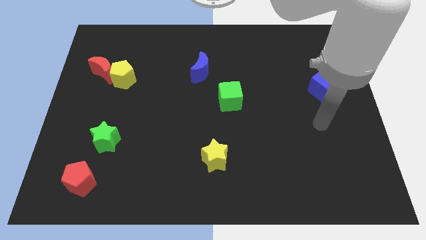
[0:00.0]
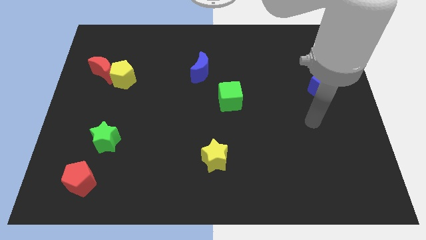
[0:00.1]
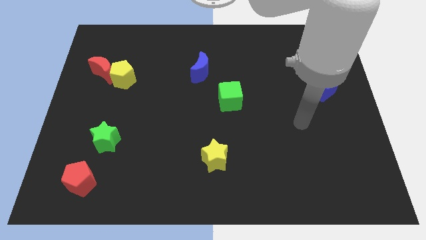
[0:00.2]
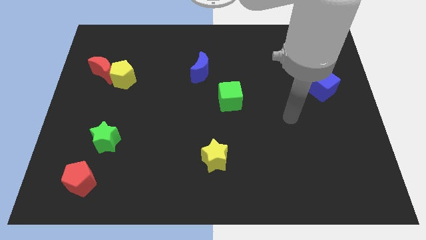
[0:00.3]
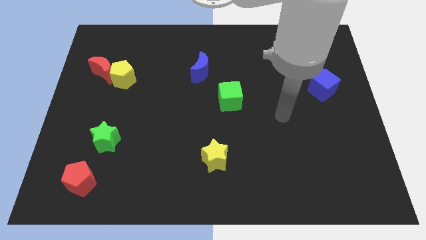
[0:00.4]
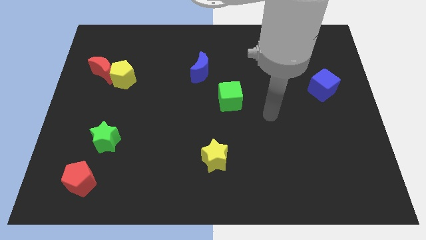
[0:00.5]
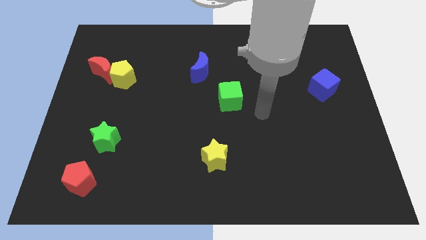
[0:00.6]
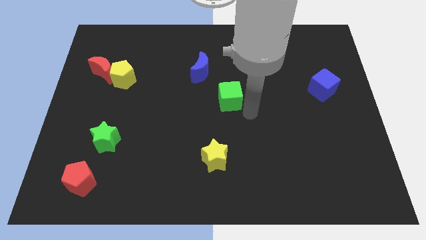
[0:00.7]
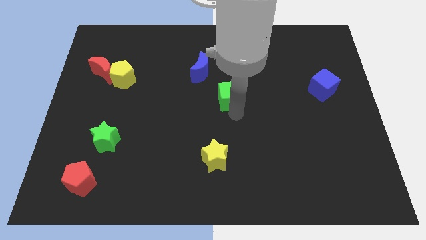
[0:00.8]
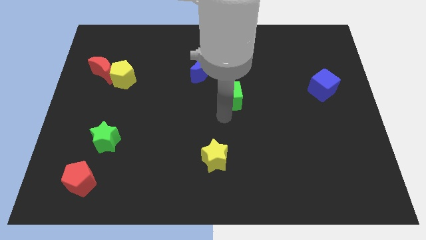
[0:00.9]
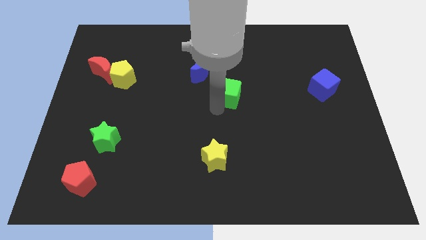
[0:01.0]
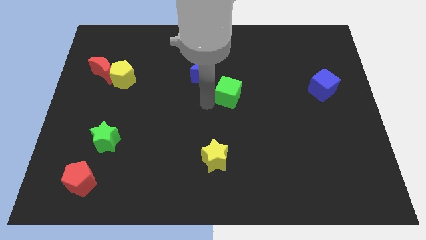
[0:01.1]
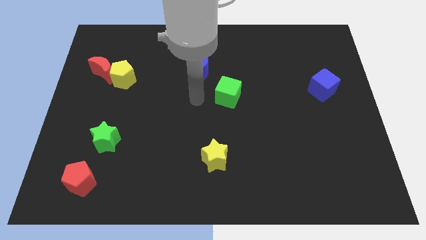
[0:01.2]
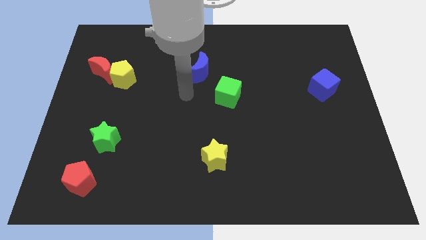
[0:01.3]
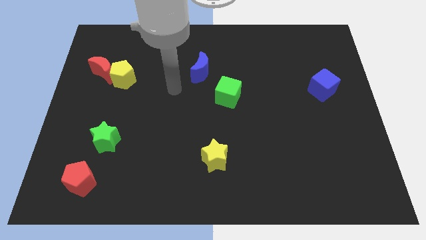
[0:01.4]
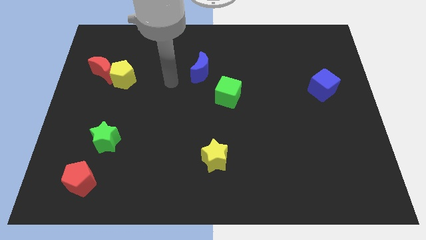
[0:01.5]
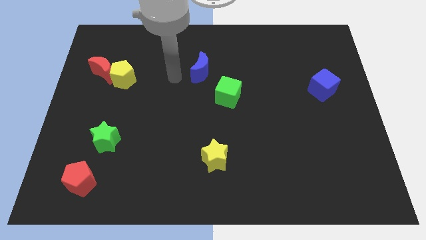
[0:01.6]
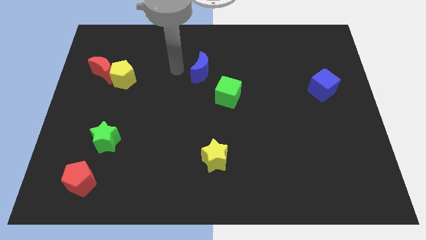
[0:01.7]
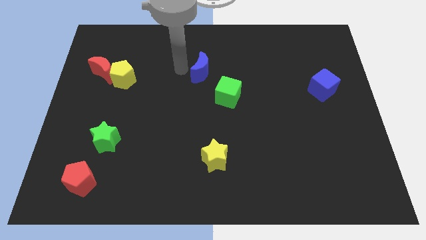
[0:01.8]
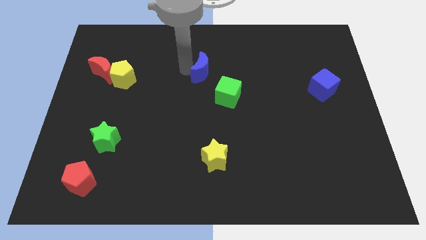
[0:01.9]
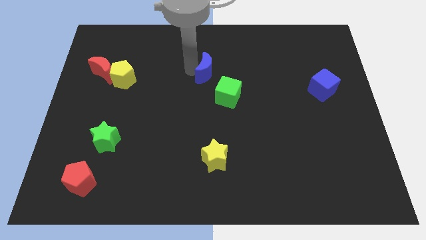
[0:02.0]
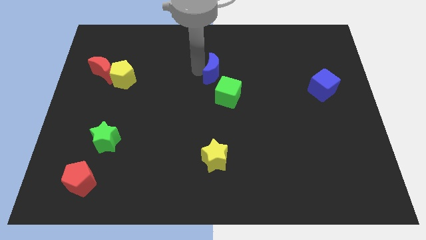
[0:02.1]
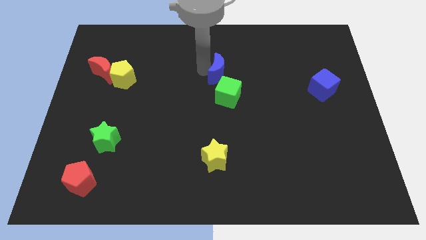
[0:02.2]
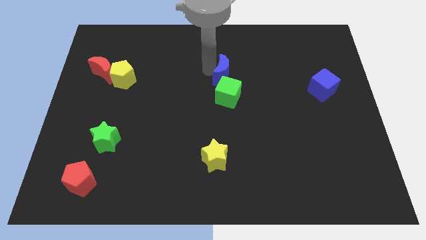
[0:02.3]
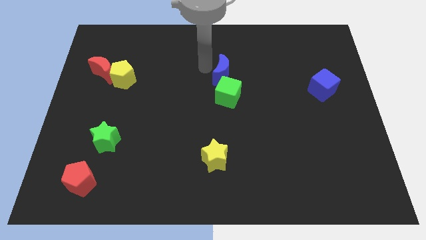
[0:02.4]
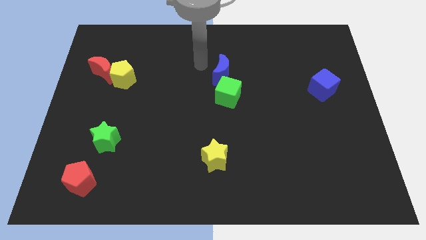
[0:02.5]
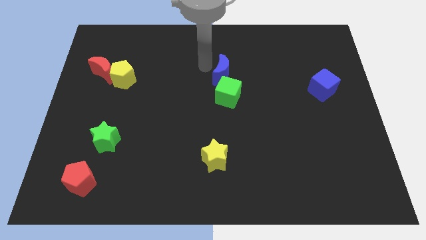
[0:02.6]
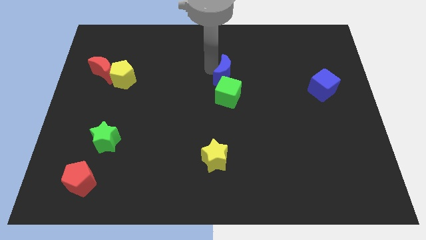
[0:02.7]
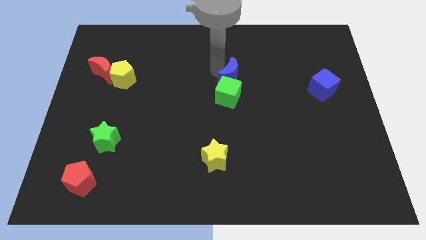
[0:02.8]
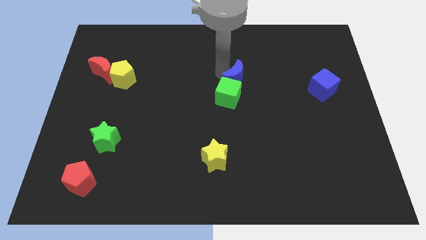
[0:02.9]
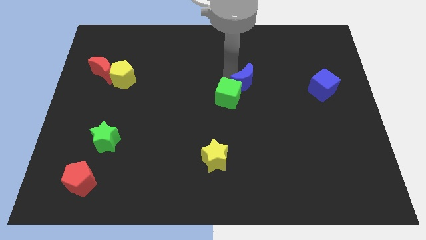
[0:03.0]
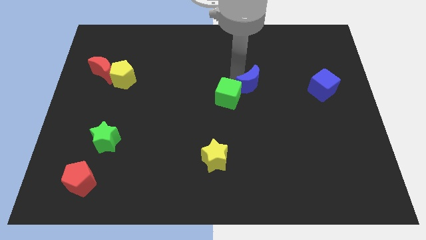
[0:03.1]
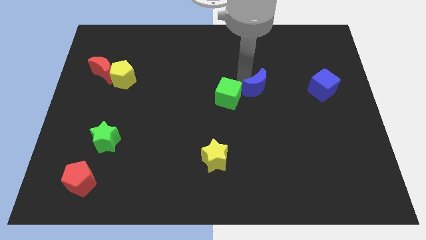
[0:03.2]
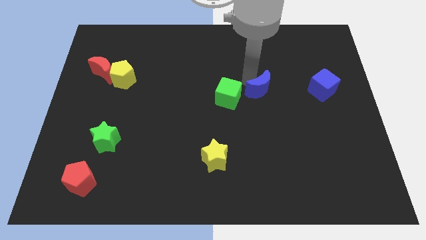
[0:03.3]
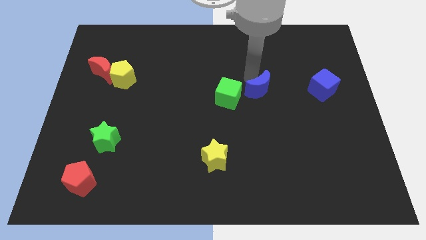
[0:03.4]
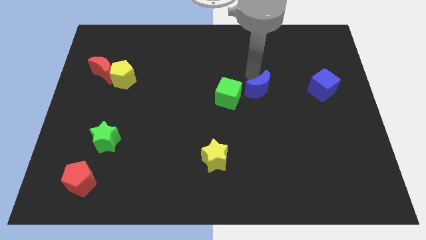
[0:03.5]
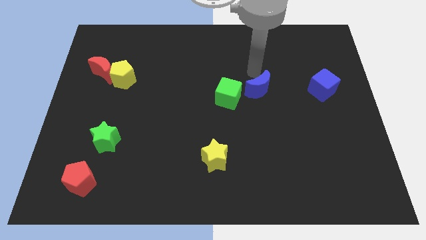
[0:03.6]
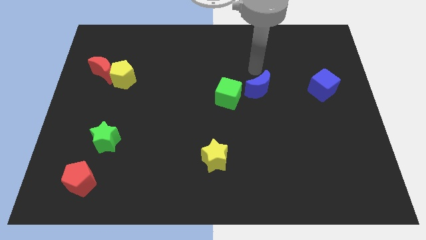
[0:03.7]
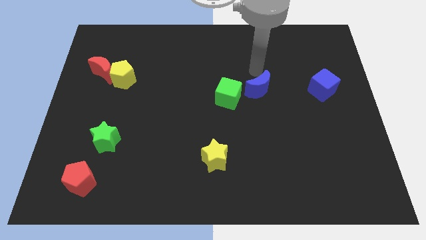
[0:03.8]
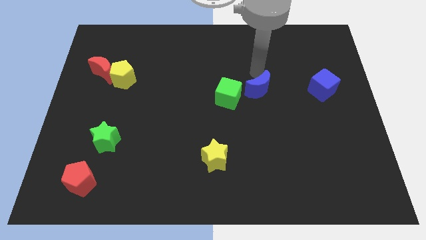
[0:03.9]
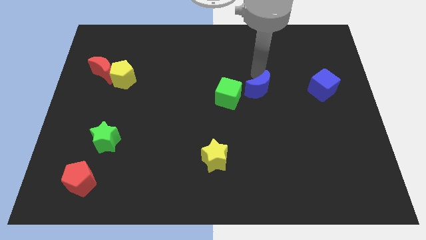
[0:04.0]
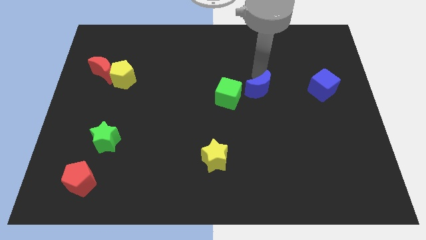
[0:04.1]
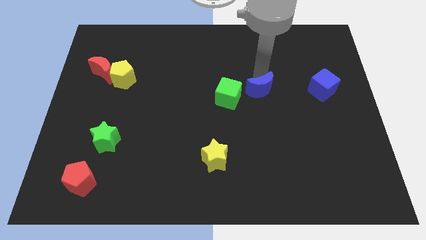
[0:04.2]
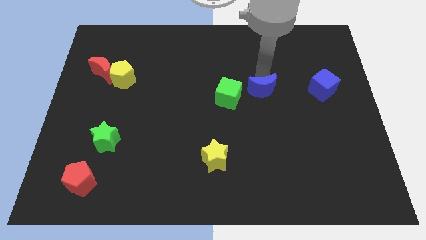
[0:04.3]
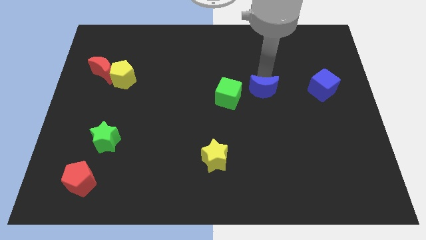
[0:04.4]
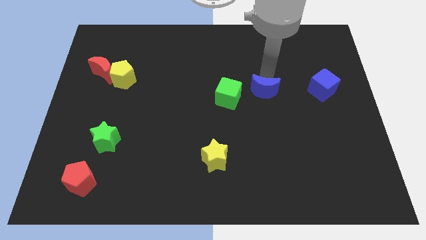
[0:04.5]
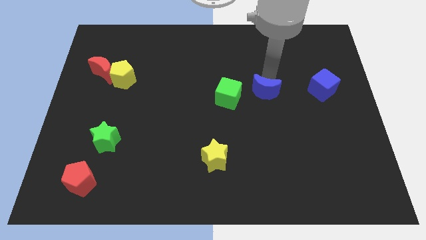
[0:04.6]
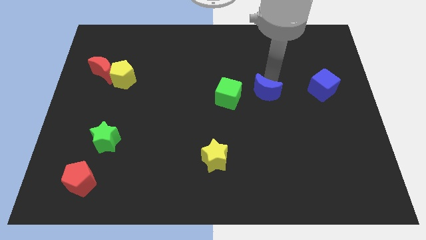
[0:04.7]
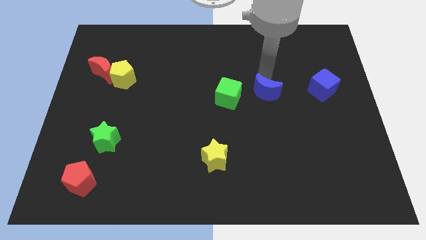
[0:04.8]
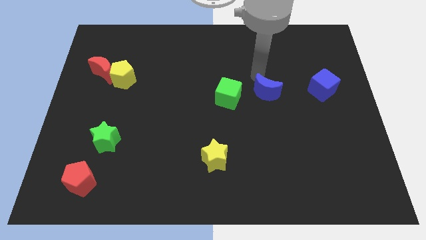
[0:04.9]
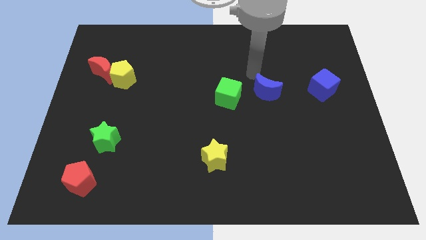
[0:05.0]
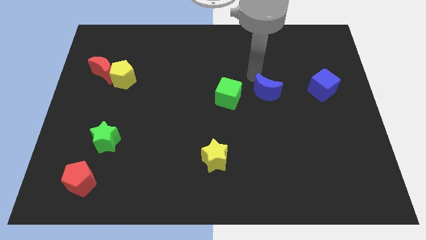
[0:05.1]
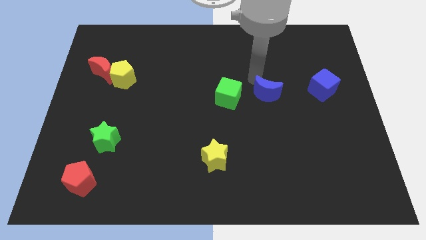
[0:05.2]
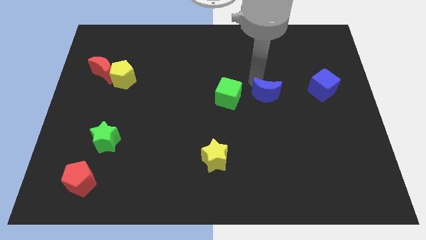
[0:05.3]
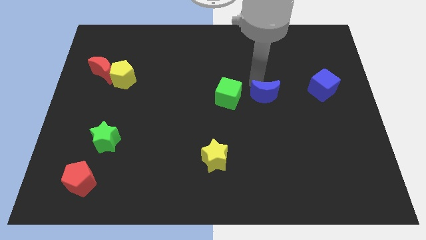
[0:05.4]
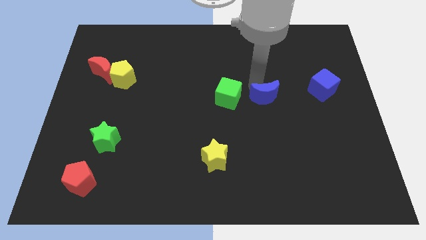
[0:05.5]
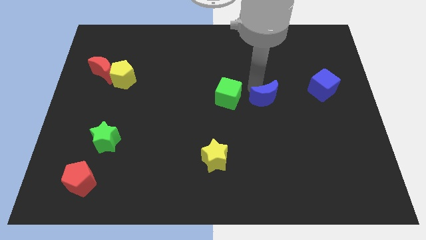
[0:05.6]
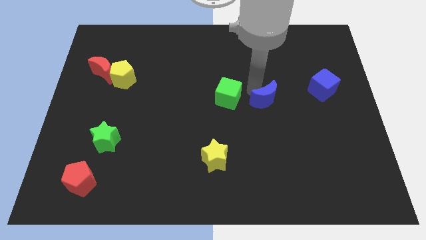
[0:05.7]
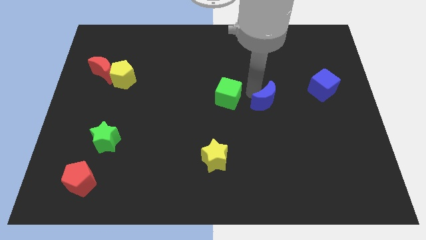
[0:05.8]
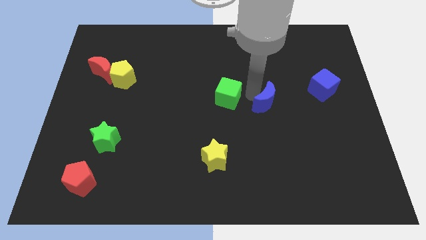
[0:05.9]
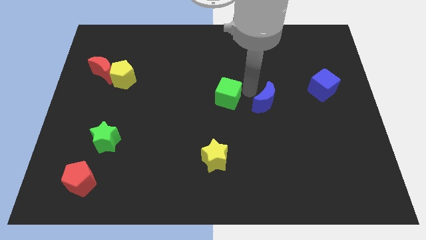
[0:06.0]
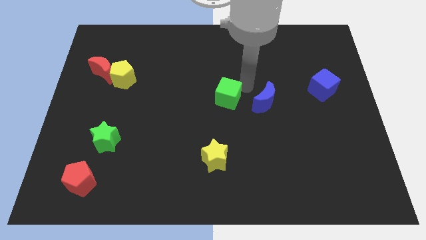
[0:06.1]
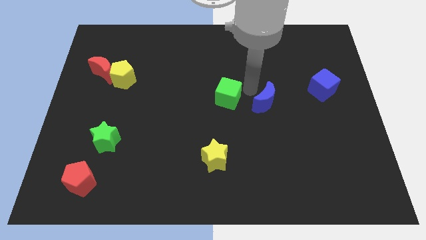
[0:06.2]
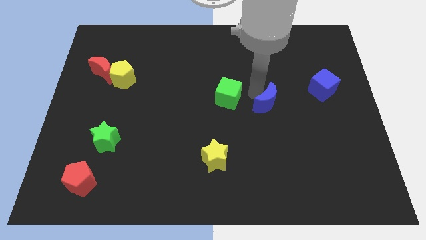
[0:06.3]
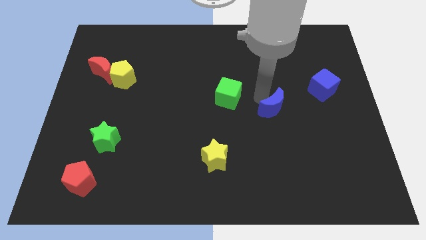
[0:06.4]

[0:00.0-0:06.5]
slide the blue moon down and to the right diagonally

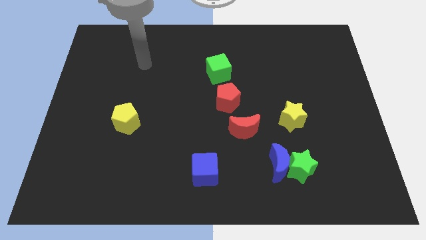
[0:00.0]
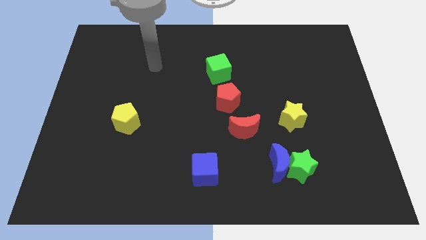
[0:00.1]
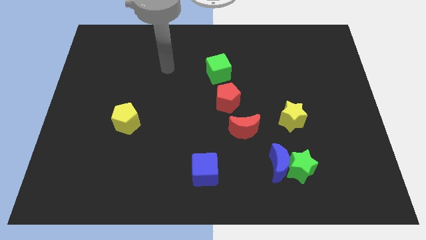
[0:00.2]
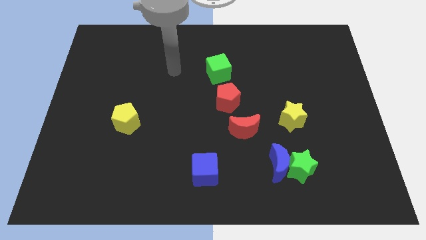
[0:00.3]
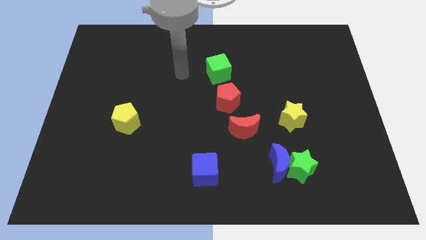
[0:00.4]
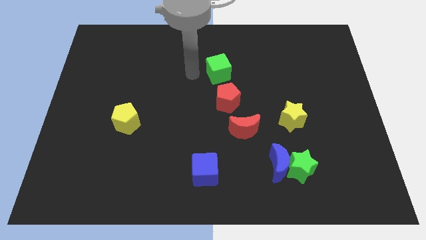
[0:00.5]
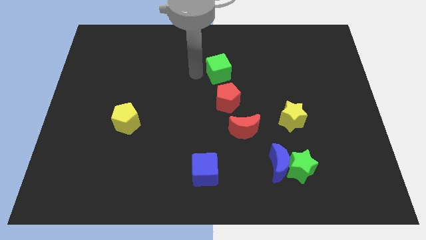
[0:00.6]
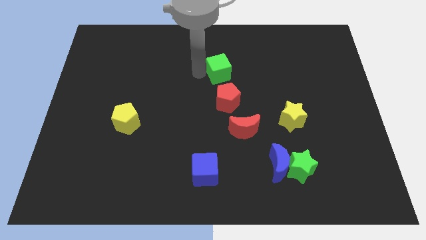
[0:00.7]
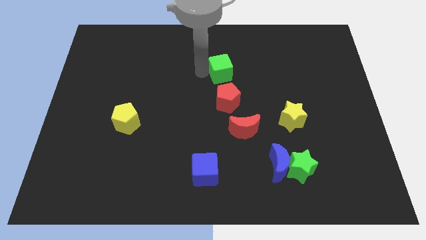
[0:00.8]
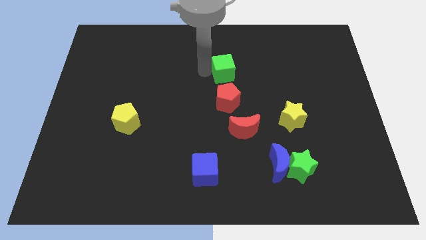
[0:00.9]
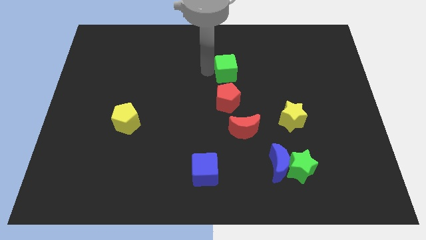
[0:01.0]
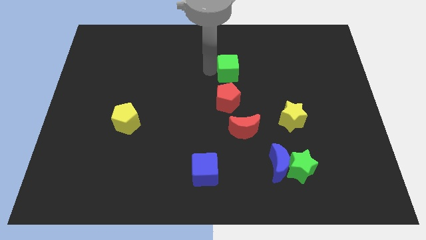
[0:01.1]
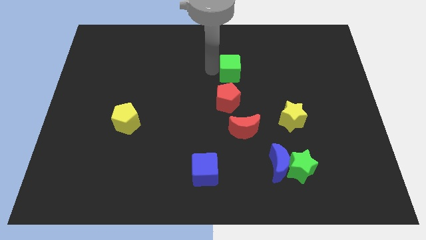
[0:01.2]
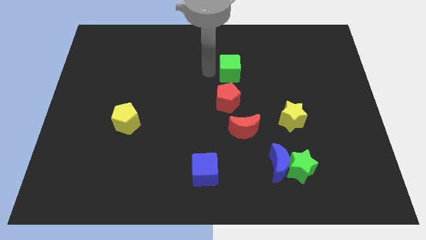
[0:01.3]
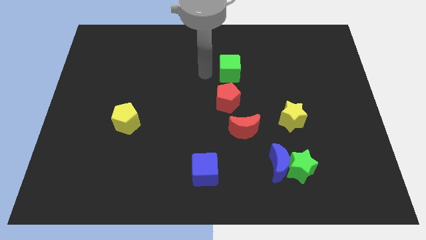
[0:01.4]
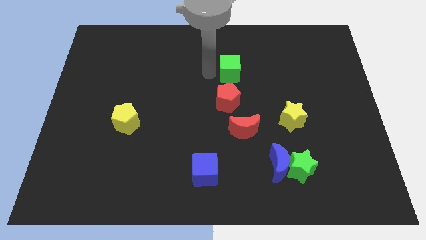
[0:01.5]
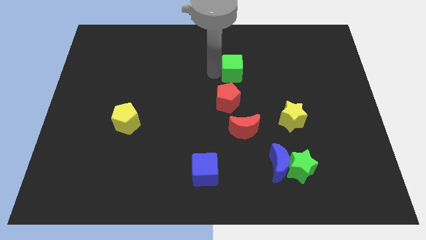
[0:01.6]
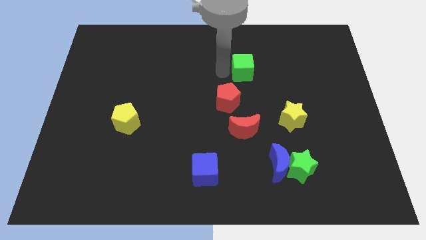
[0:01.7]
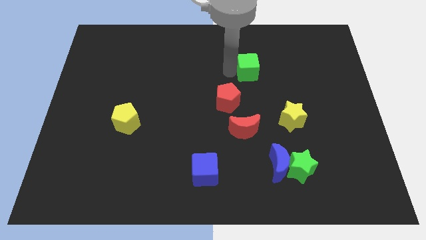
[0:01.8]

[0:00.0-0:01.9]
slightly push the green cube right
